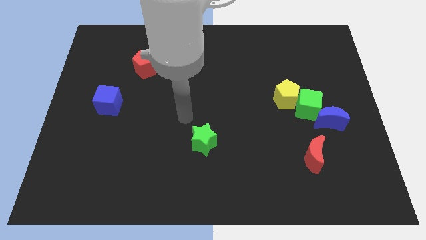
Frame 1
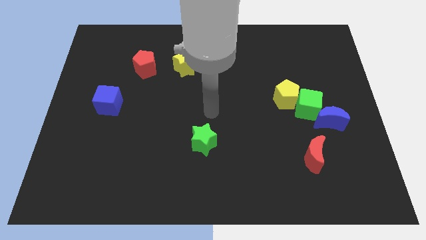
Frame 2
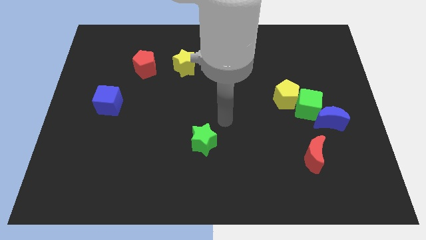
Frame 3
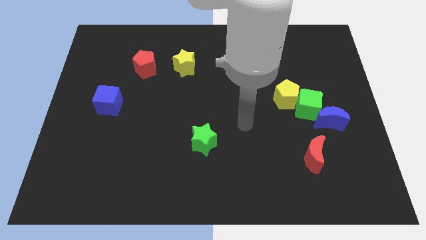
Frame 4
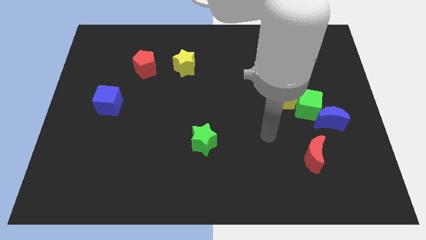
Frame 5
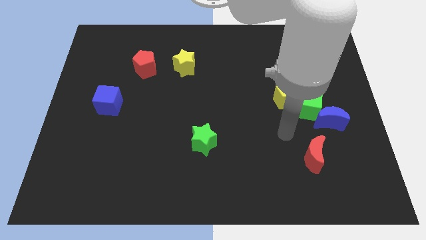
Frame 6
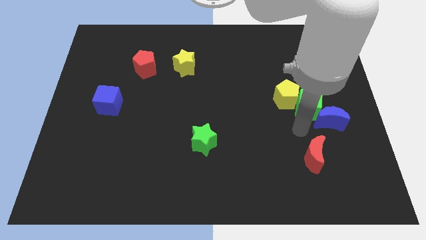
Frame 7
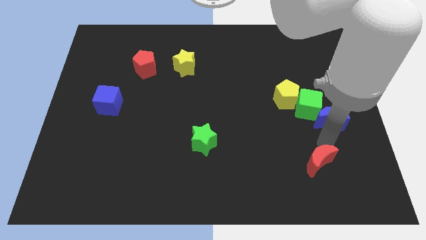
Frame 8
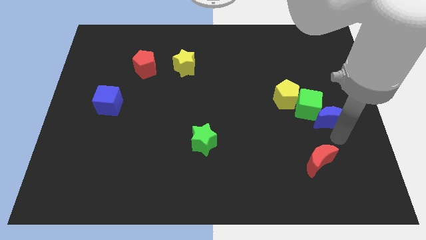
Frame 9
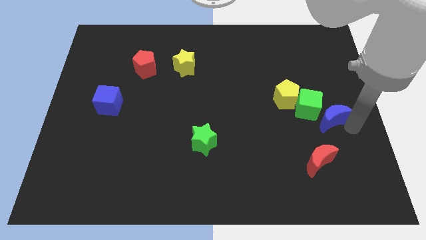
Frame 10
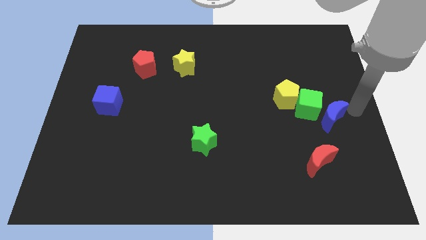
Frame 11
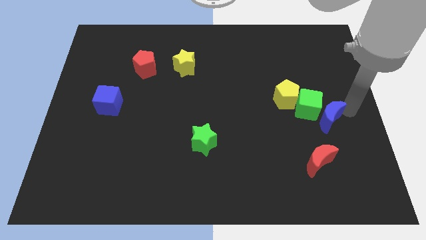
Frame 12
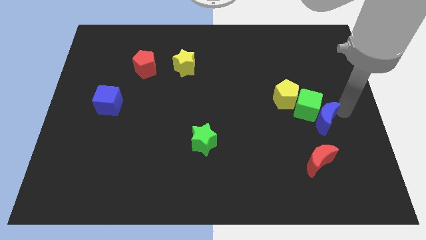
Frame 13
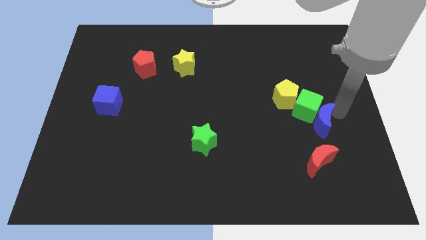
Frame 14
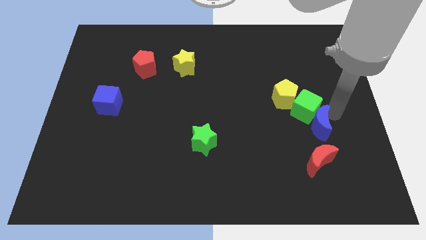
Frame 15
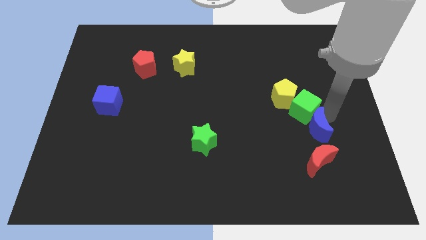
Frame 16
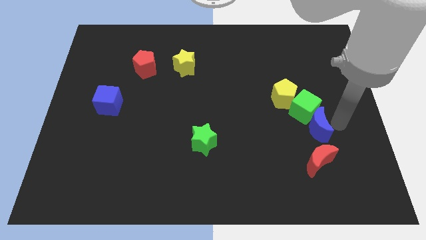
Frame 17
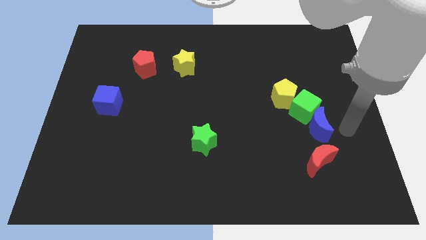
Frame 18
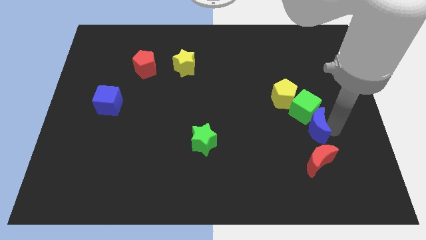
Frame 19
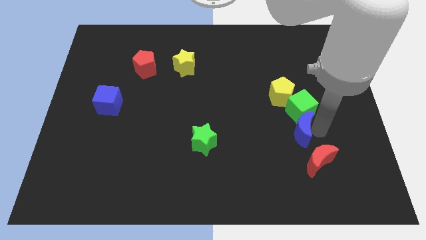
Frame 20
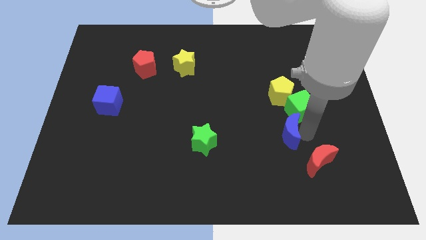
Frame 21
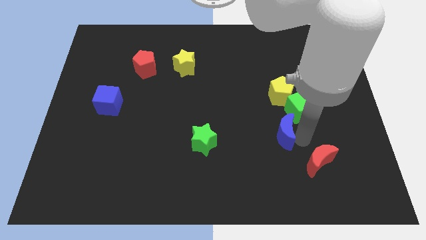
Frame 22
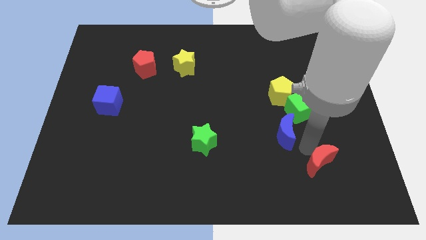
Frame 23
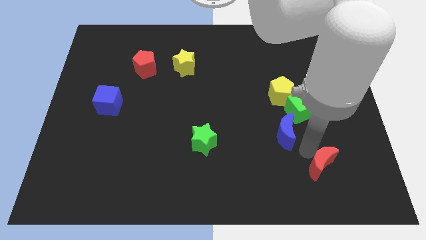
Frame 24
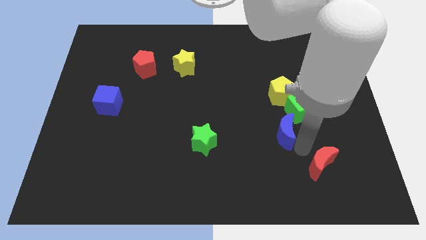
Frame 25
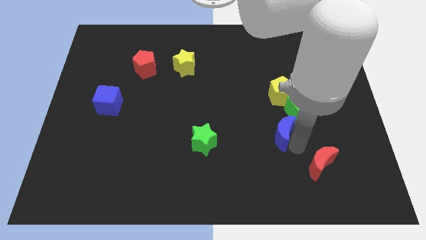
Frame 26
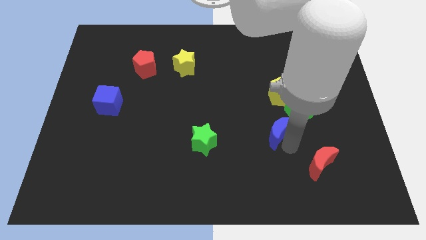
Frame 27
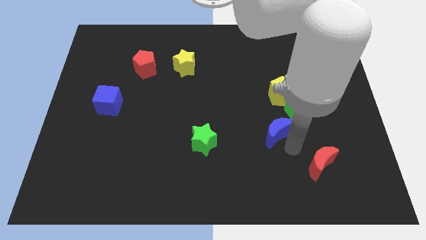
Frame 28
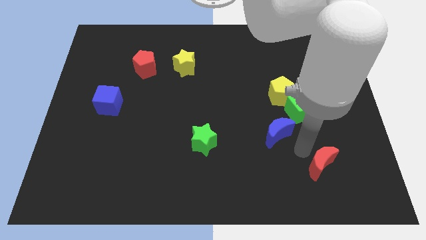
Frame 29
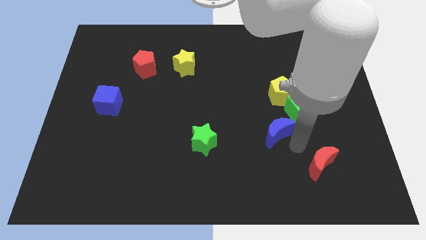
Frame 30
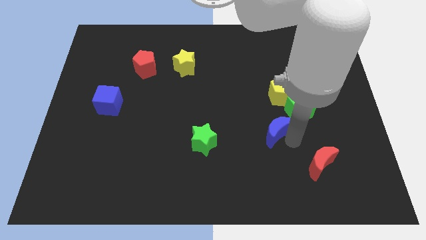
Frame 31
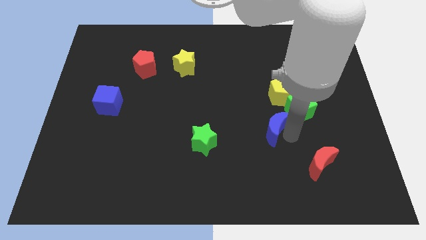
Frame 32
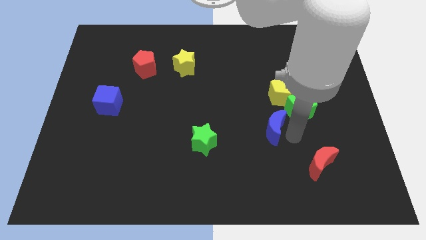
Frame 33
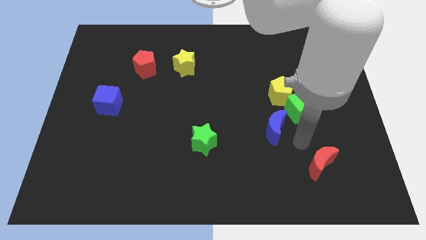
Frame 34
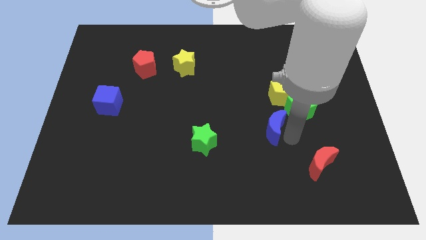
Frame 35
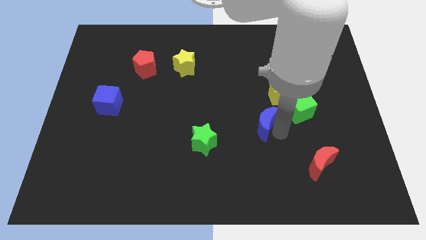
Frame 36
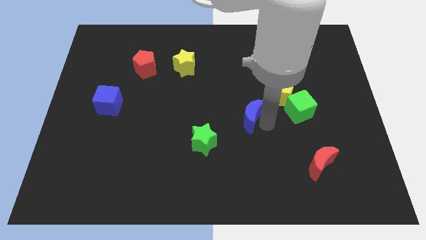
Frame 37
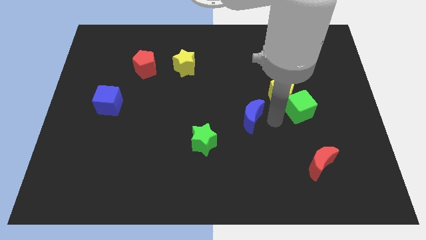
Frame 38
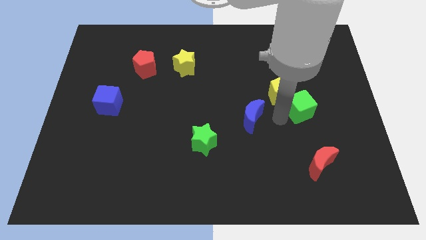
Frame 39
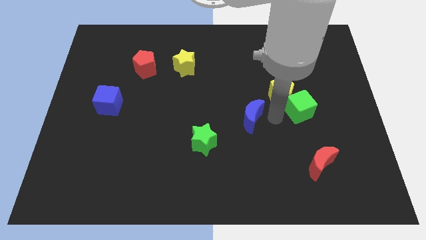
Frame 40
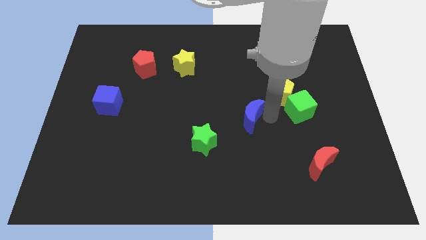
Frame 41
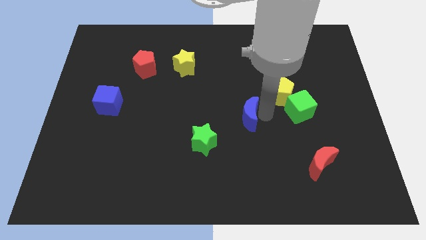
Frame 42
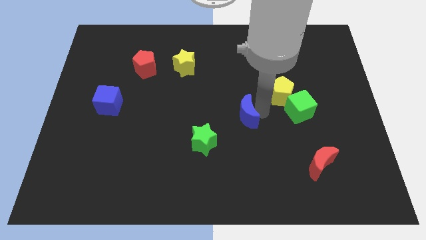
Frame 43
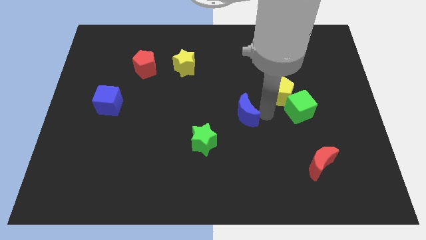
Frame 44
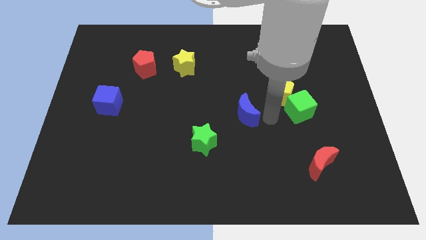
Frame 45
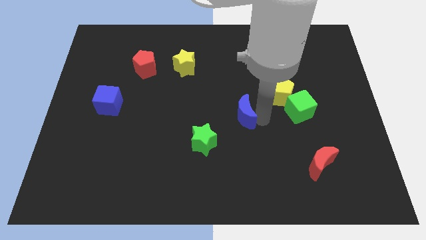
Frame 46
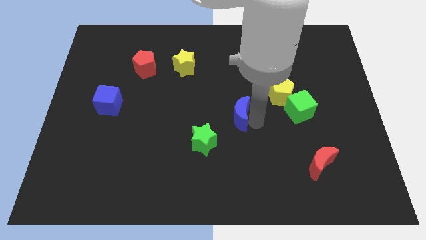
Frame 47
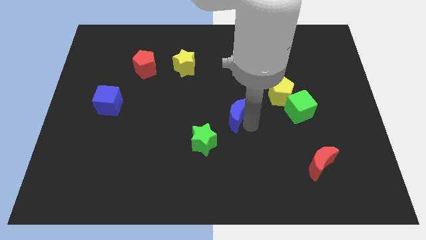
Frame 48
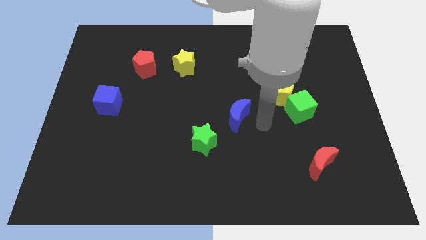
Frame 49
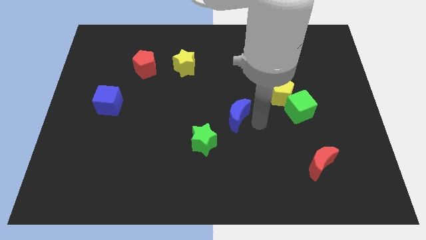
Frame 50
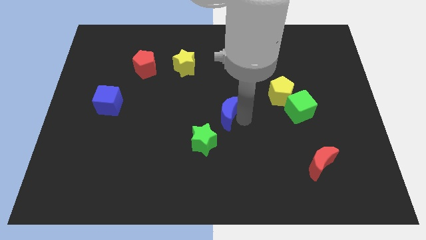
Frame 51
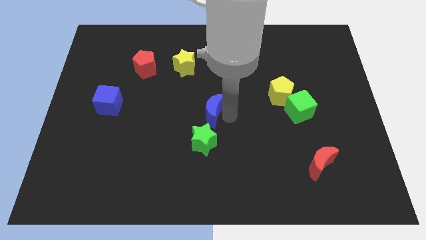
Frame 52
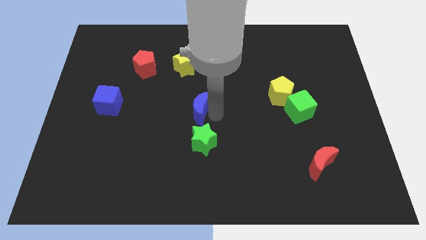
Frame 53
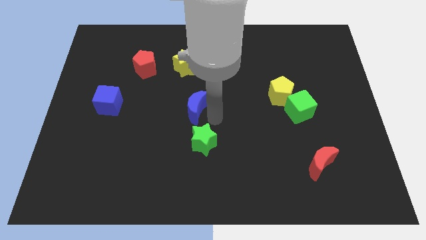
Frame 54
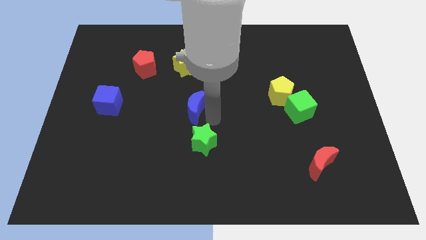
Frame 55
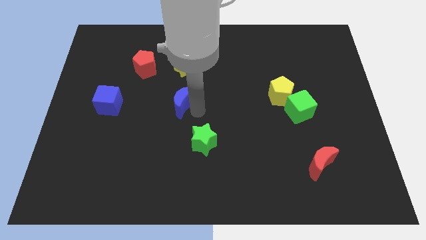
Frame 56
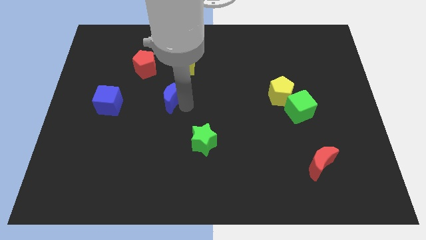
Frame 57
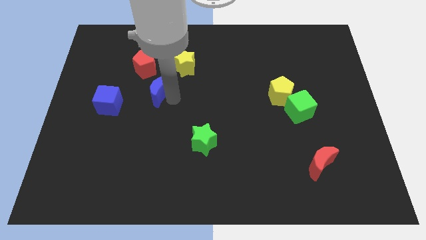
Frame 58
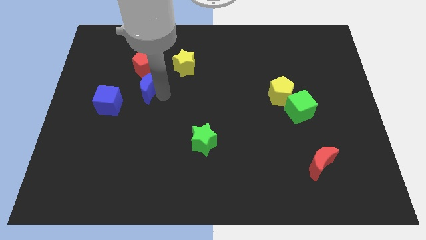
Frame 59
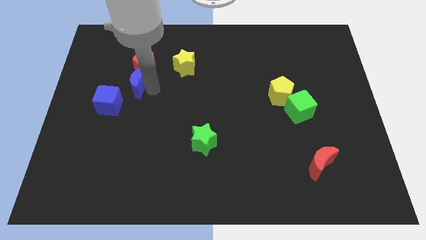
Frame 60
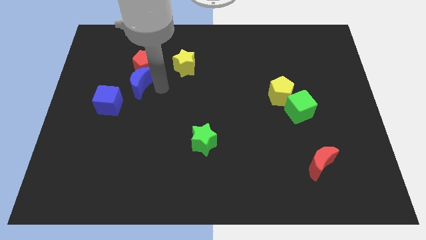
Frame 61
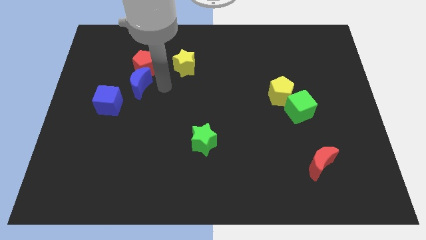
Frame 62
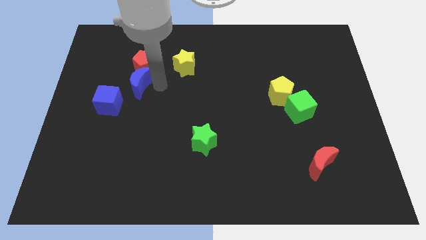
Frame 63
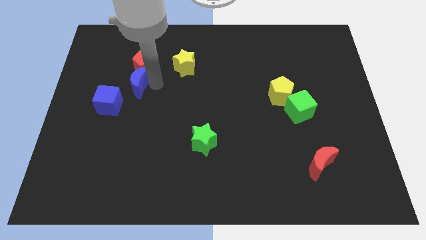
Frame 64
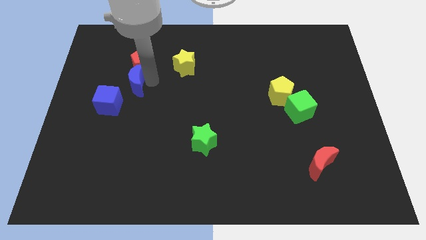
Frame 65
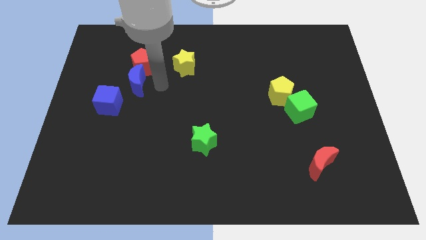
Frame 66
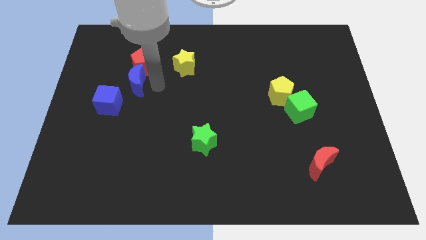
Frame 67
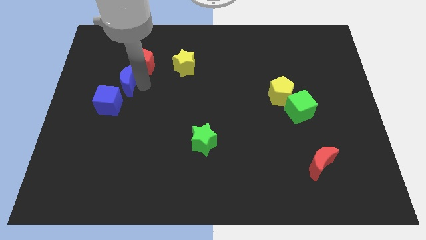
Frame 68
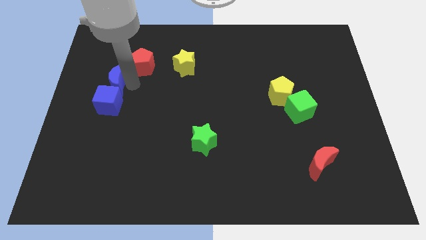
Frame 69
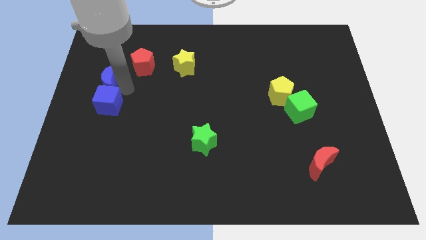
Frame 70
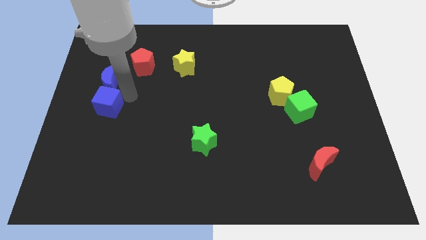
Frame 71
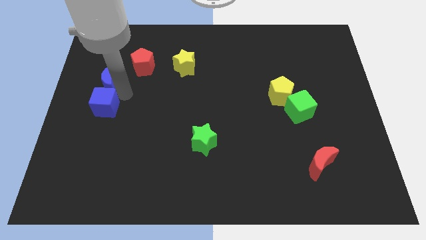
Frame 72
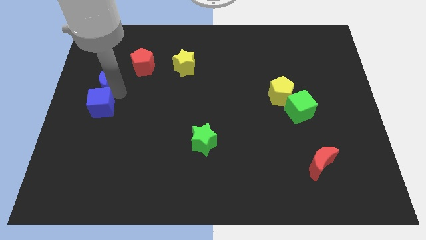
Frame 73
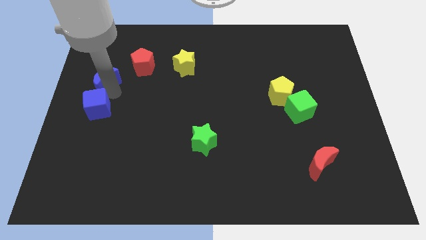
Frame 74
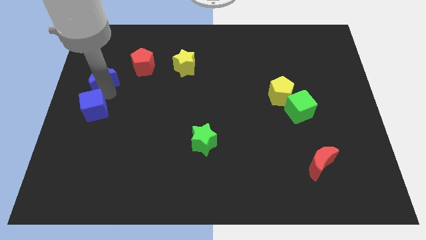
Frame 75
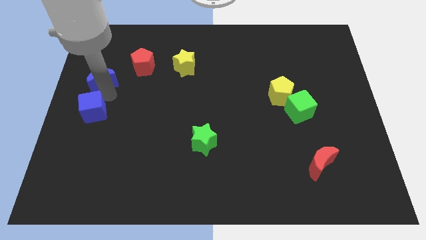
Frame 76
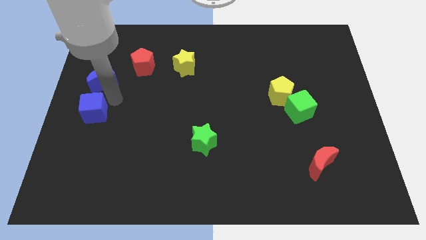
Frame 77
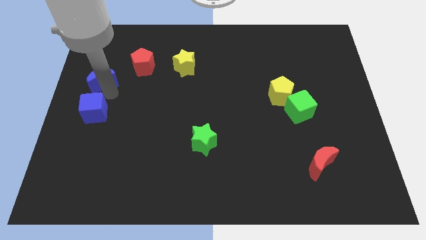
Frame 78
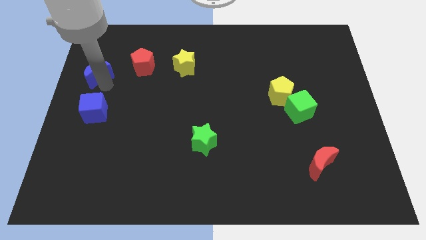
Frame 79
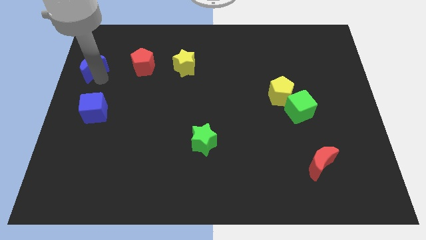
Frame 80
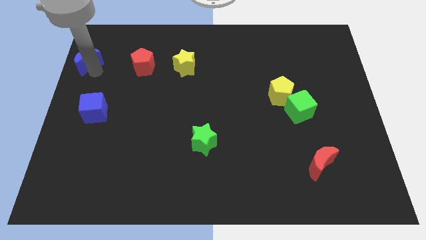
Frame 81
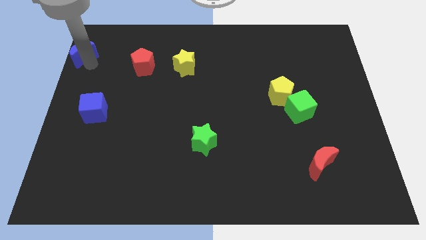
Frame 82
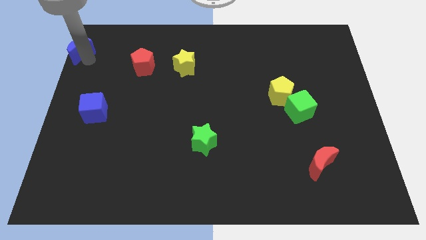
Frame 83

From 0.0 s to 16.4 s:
put the blue moon to the top left
